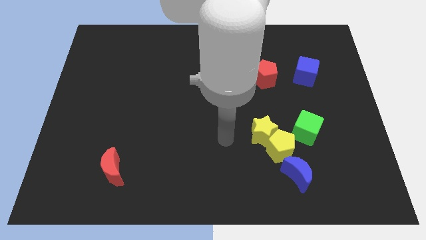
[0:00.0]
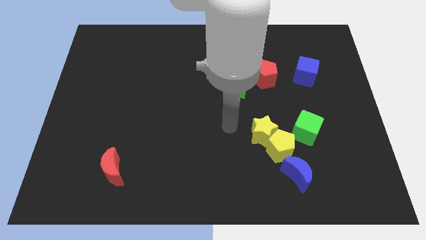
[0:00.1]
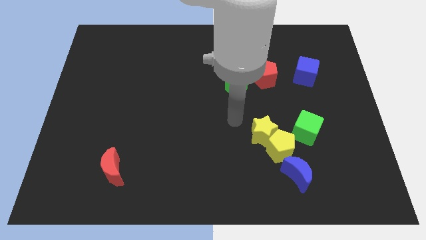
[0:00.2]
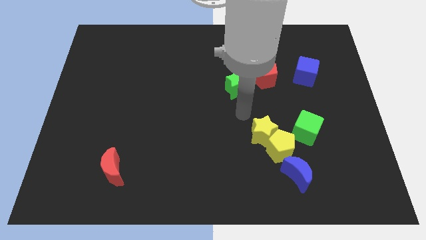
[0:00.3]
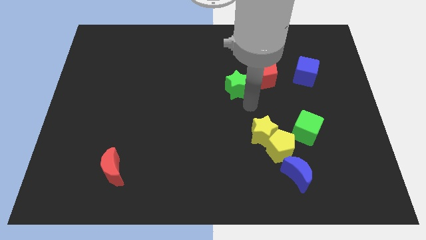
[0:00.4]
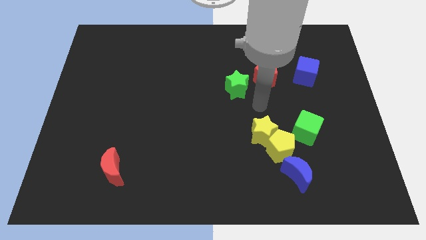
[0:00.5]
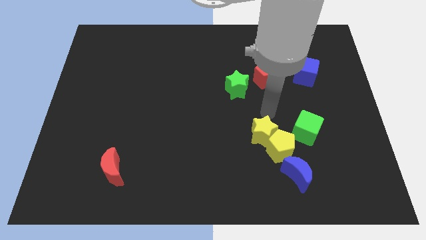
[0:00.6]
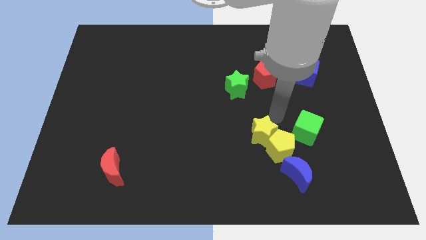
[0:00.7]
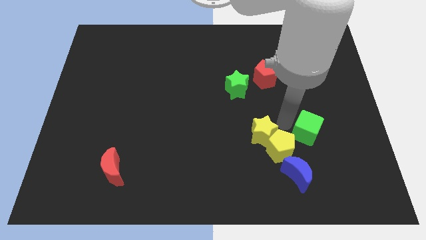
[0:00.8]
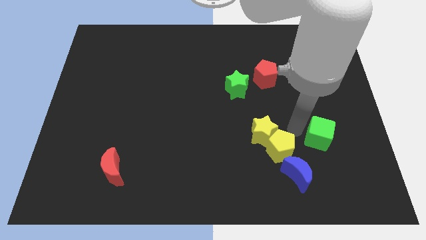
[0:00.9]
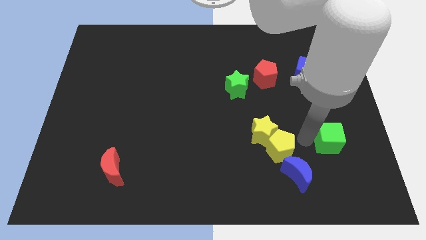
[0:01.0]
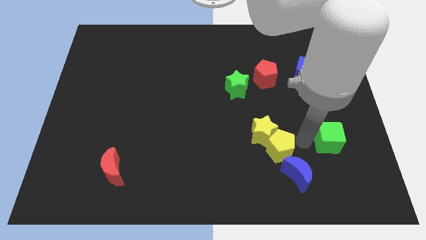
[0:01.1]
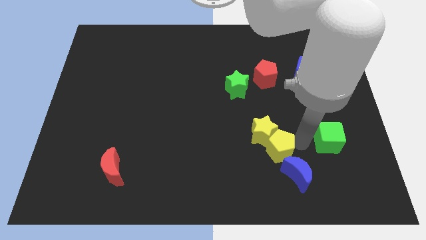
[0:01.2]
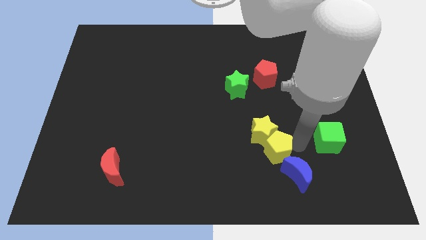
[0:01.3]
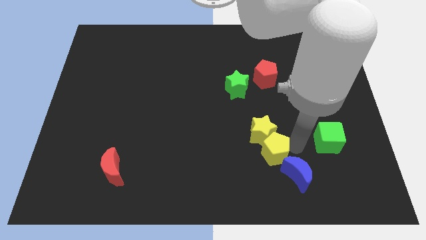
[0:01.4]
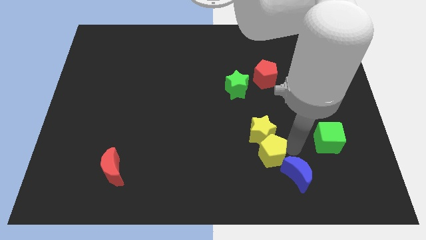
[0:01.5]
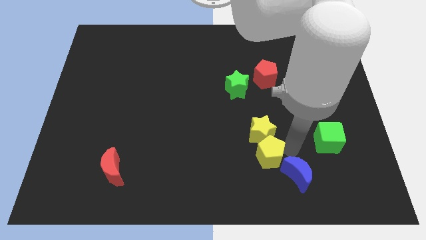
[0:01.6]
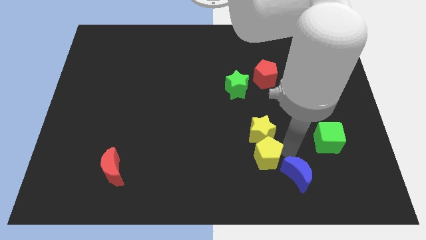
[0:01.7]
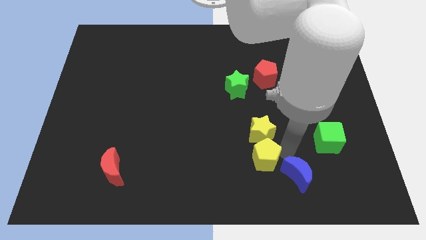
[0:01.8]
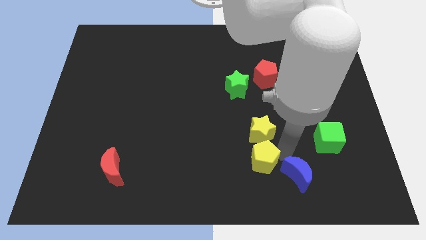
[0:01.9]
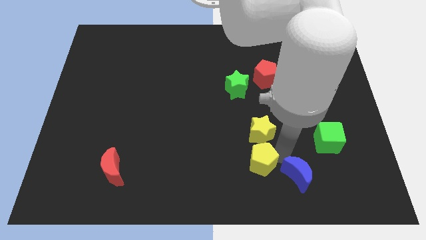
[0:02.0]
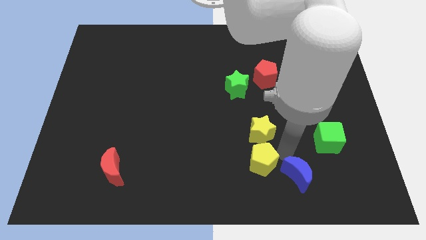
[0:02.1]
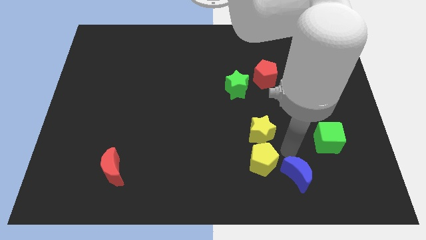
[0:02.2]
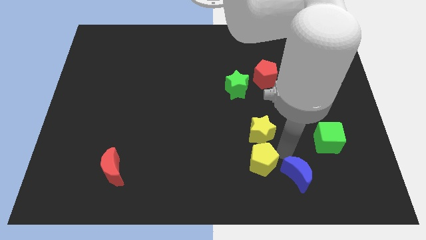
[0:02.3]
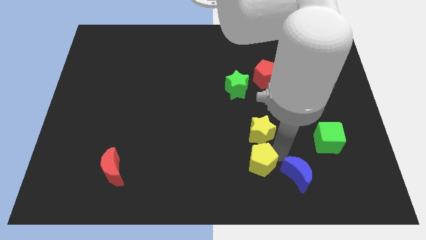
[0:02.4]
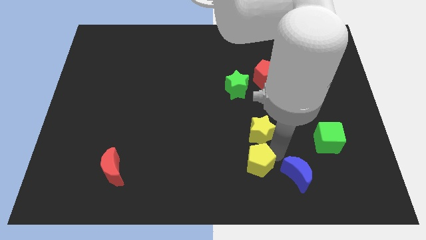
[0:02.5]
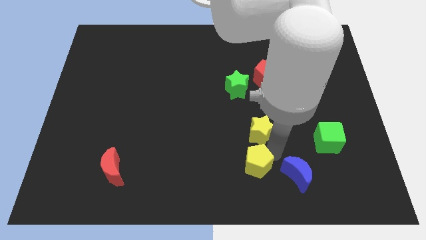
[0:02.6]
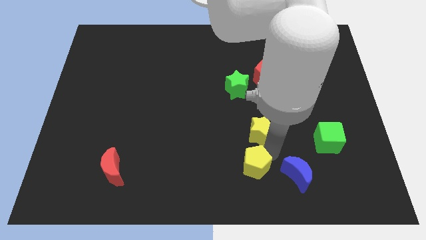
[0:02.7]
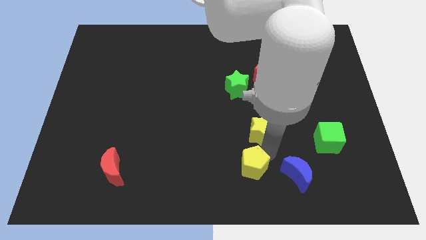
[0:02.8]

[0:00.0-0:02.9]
move the yellow pentagon away from the yellow star, blue moon, and green cube

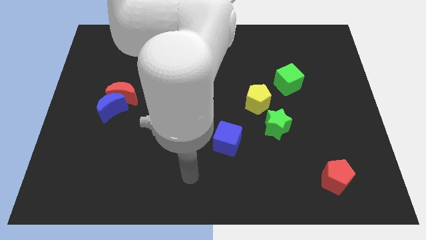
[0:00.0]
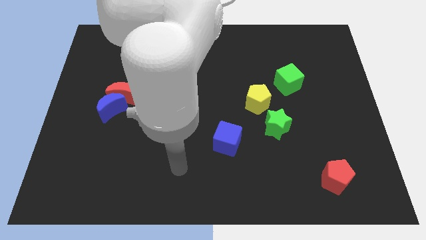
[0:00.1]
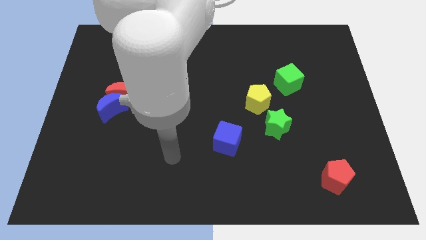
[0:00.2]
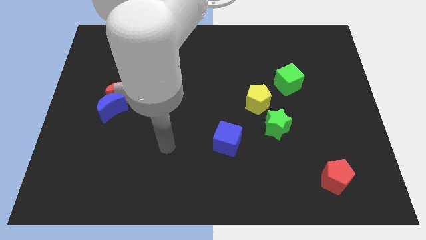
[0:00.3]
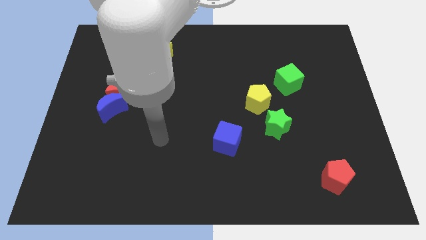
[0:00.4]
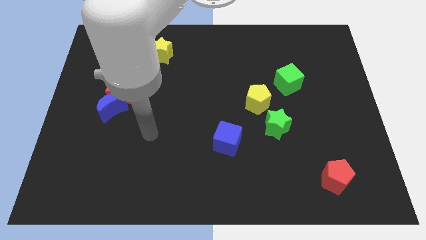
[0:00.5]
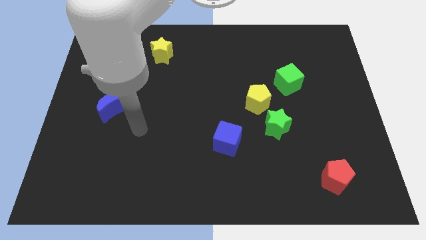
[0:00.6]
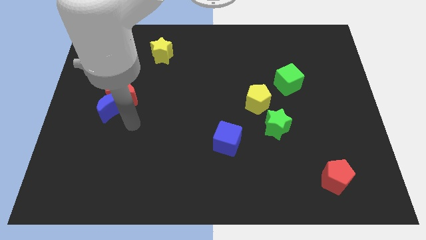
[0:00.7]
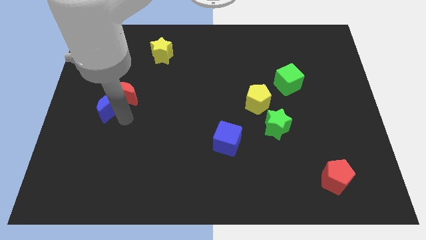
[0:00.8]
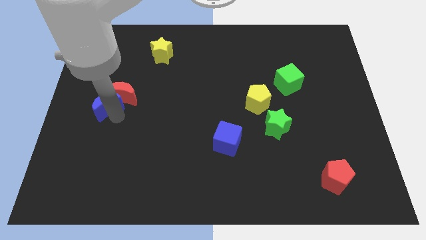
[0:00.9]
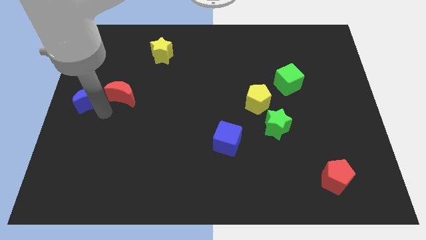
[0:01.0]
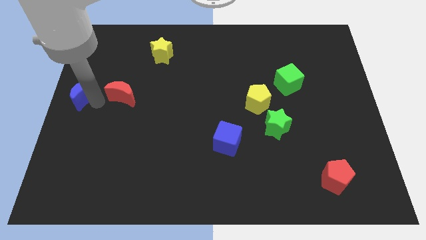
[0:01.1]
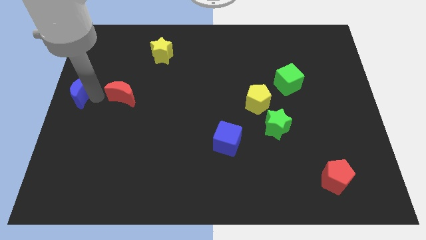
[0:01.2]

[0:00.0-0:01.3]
separate the red moon from the blue moon

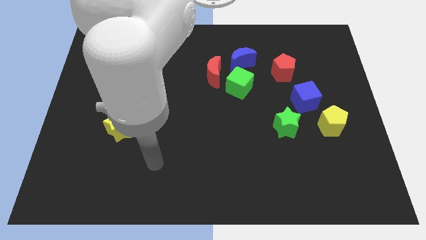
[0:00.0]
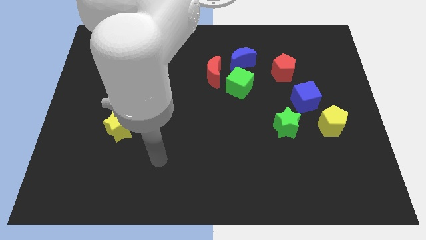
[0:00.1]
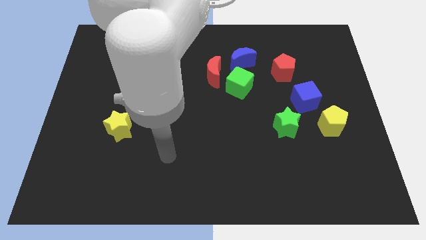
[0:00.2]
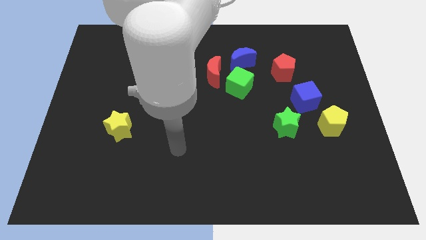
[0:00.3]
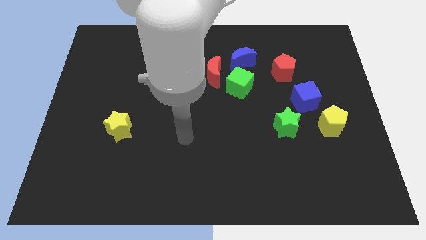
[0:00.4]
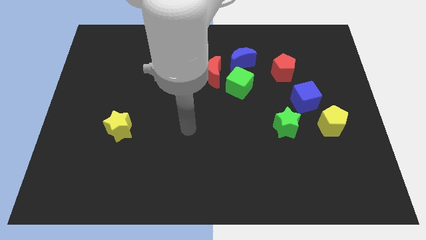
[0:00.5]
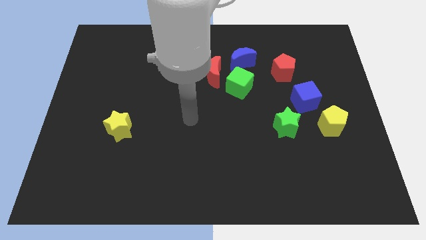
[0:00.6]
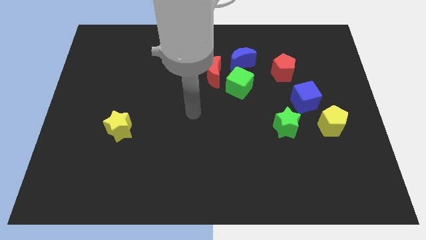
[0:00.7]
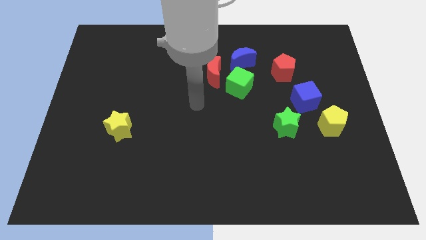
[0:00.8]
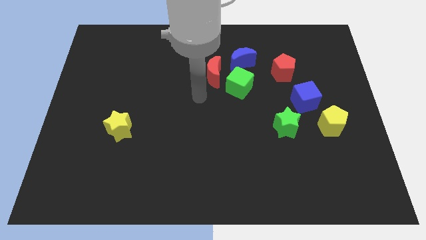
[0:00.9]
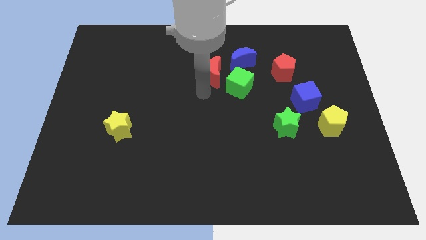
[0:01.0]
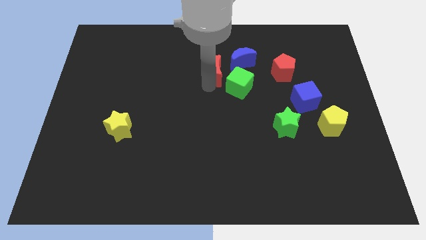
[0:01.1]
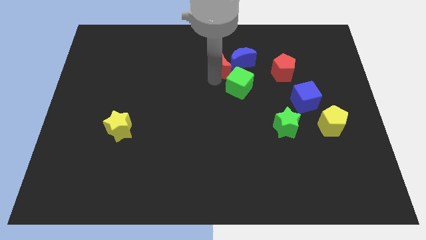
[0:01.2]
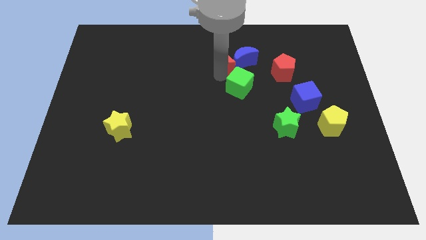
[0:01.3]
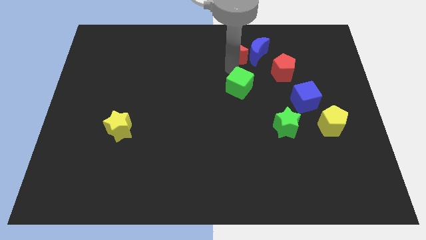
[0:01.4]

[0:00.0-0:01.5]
separate the green cube from the red moon and blue moon

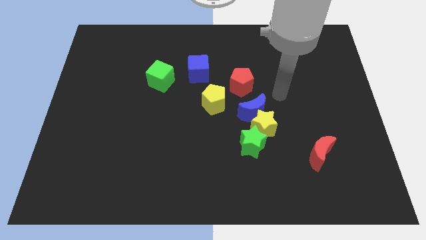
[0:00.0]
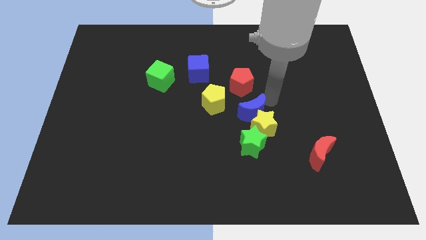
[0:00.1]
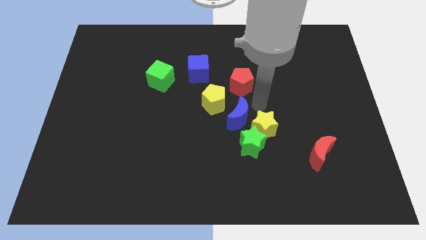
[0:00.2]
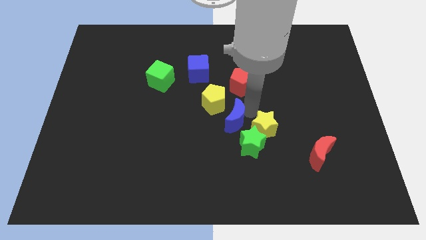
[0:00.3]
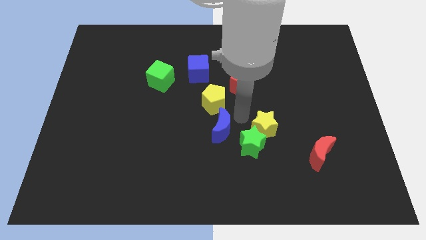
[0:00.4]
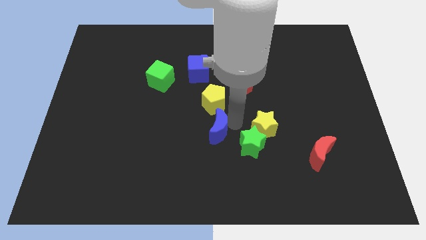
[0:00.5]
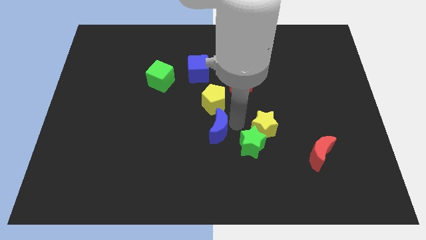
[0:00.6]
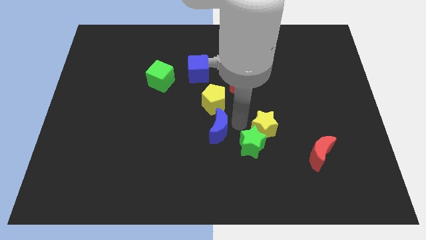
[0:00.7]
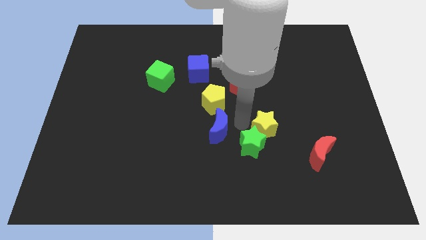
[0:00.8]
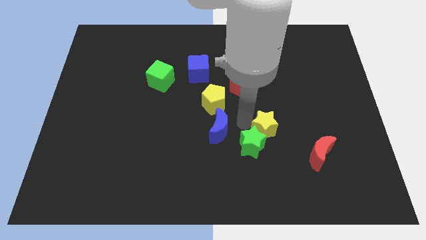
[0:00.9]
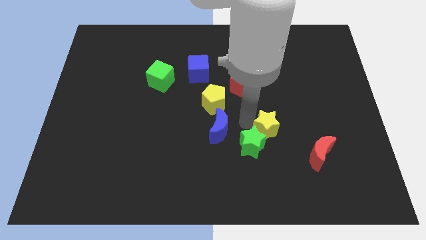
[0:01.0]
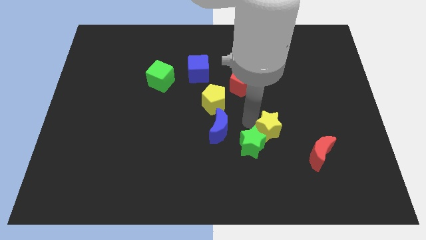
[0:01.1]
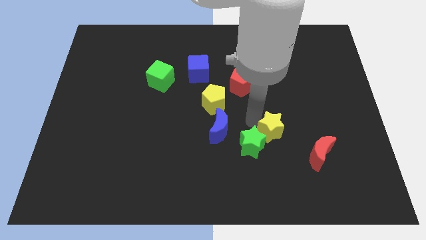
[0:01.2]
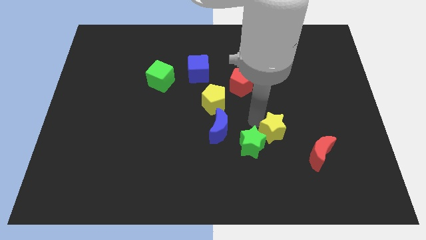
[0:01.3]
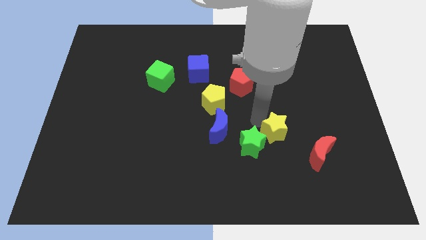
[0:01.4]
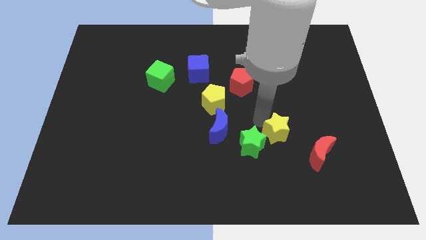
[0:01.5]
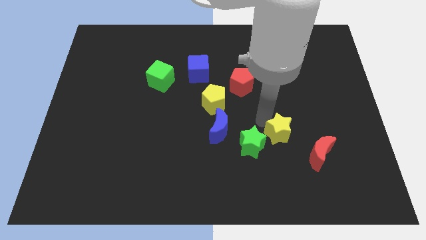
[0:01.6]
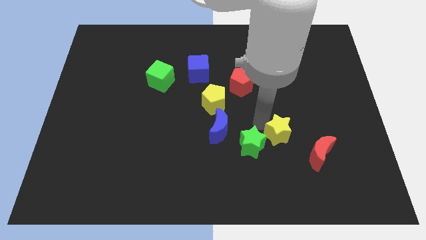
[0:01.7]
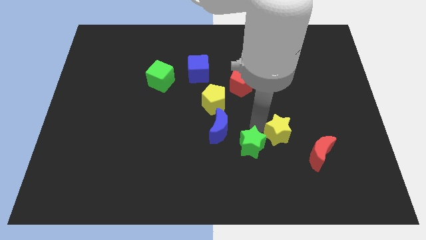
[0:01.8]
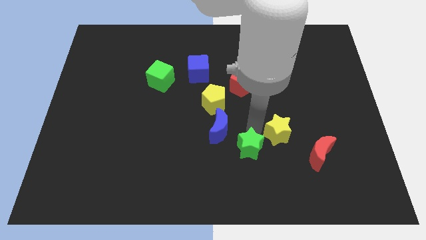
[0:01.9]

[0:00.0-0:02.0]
separate the yellow star from the blue moon and green star

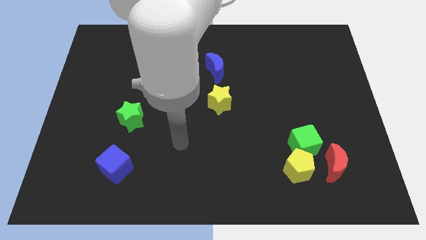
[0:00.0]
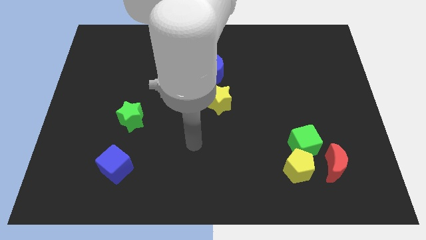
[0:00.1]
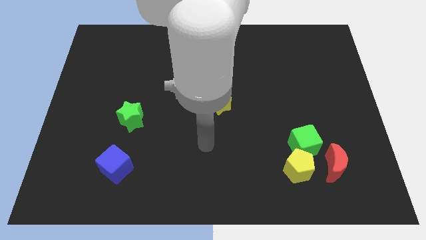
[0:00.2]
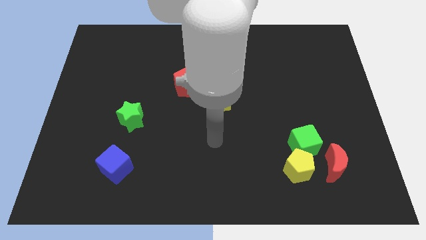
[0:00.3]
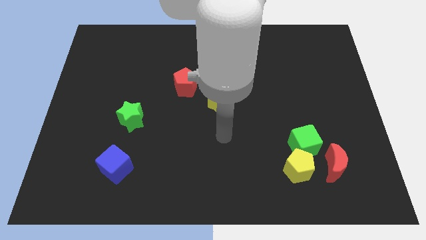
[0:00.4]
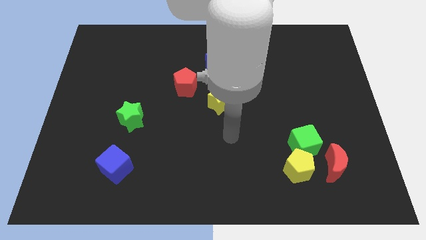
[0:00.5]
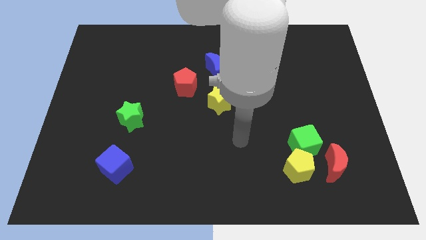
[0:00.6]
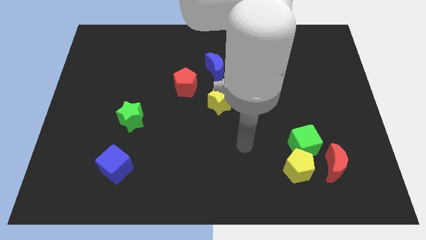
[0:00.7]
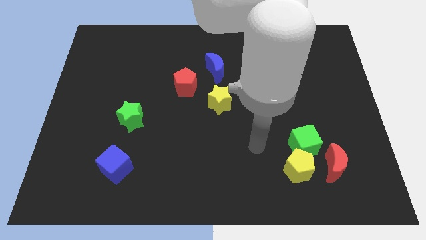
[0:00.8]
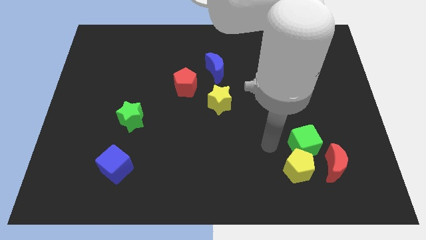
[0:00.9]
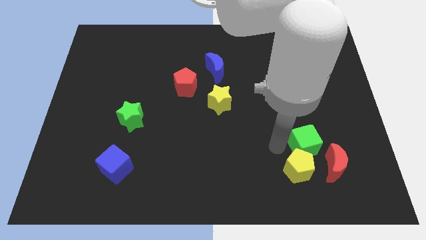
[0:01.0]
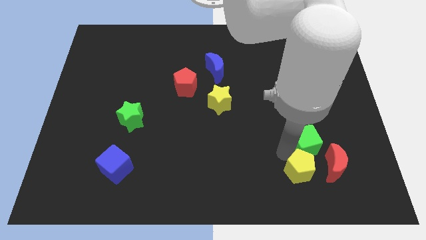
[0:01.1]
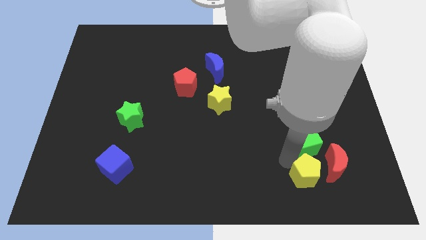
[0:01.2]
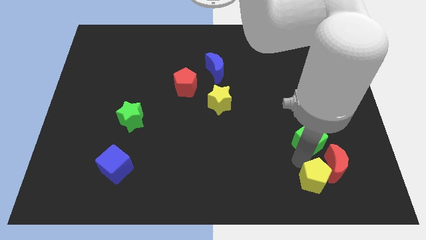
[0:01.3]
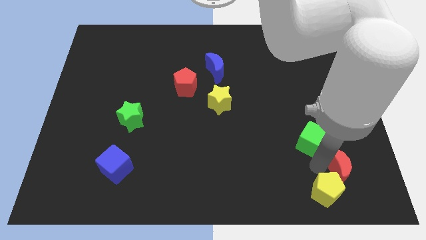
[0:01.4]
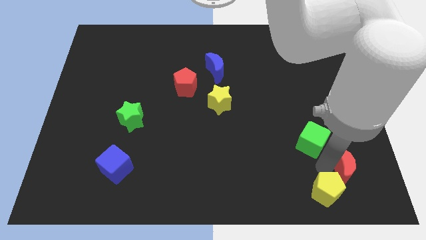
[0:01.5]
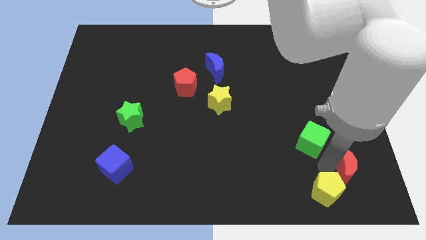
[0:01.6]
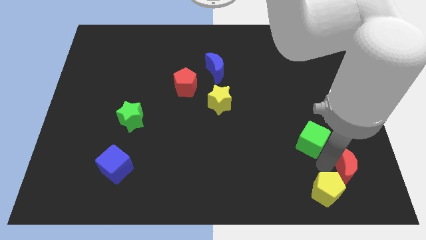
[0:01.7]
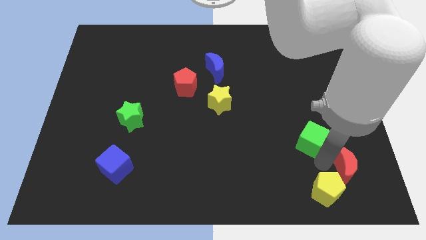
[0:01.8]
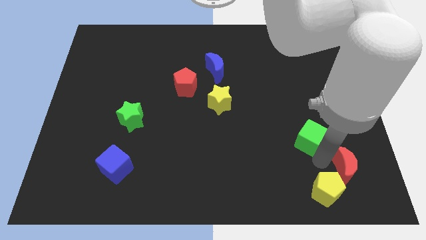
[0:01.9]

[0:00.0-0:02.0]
pull the green cube apart from the yellow pentagon and red moon
